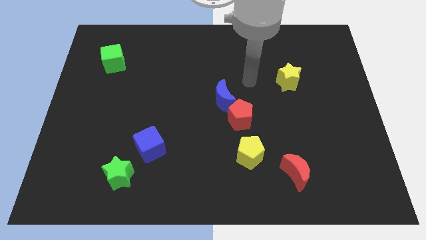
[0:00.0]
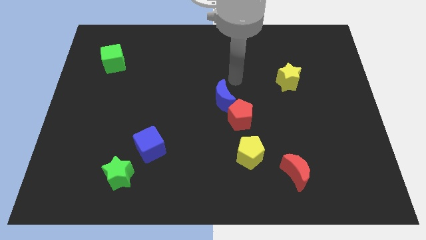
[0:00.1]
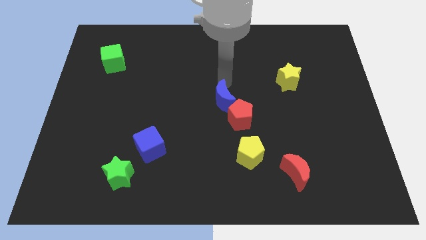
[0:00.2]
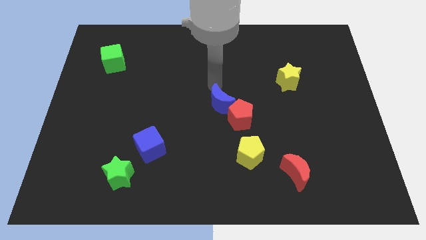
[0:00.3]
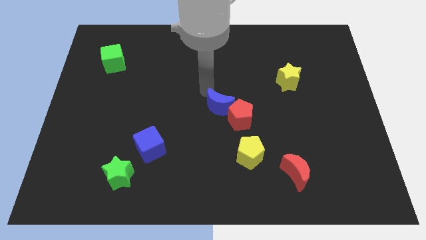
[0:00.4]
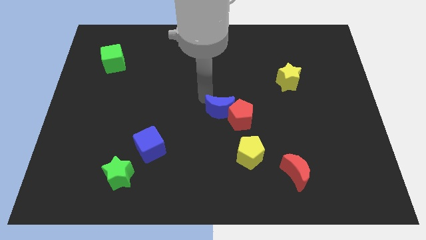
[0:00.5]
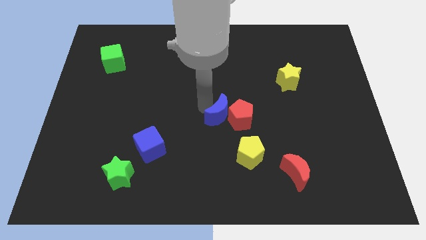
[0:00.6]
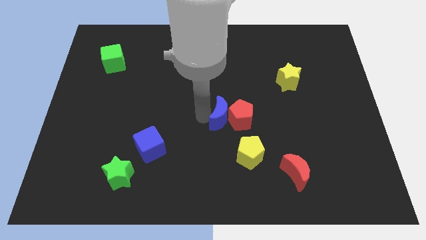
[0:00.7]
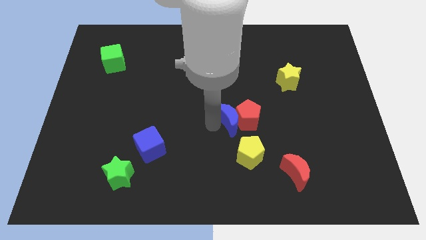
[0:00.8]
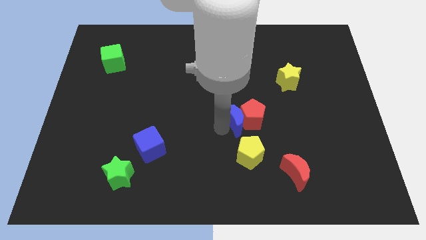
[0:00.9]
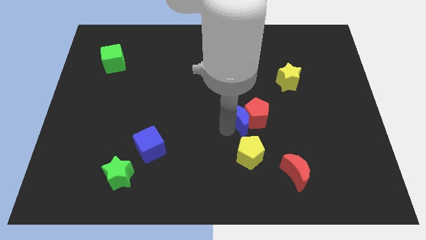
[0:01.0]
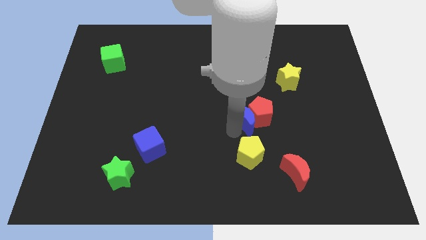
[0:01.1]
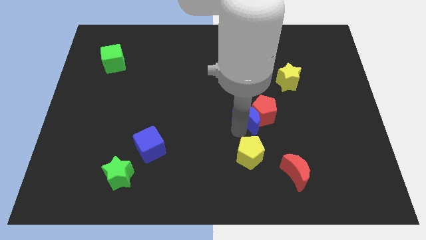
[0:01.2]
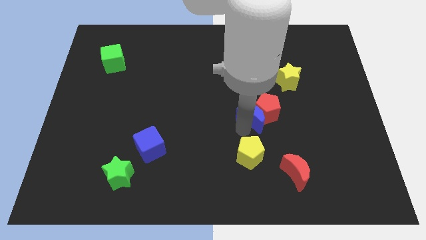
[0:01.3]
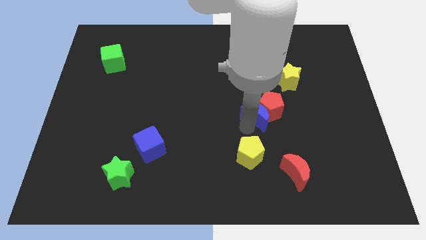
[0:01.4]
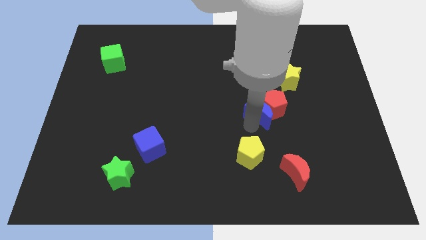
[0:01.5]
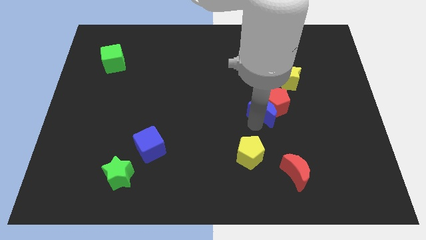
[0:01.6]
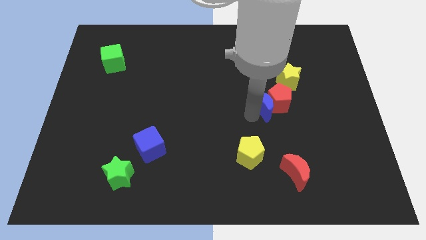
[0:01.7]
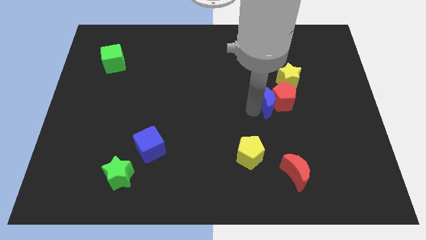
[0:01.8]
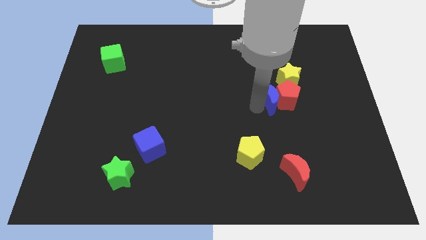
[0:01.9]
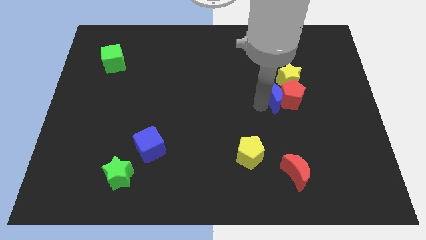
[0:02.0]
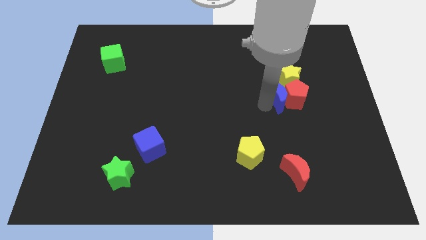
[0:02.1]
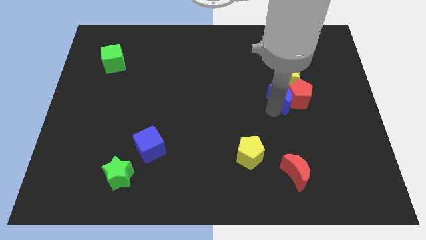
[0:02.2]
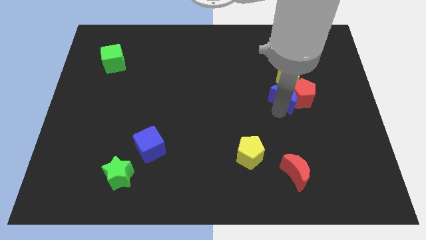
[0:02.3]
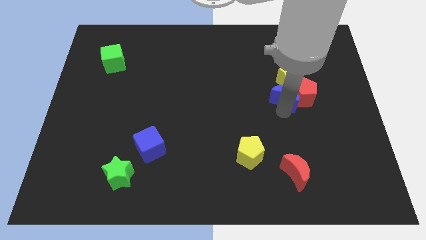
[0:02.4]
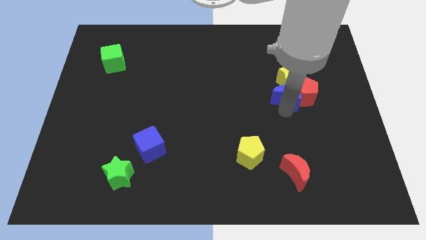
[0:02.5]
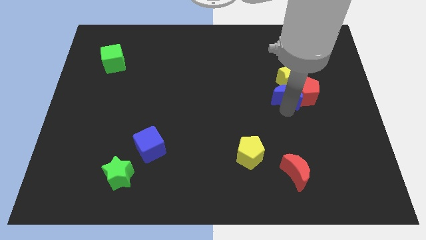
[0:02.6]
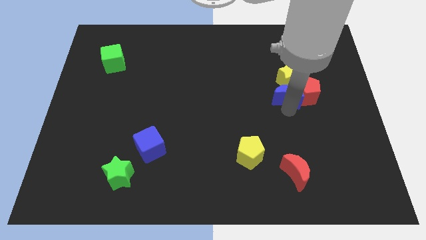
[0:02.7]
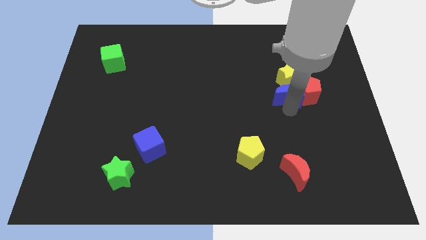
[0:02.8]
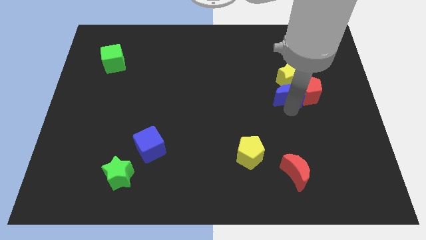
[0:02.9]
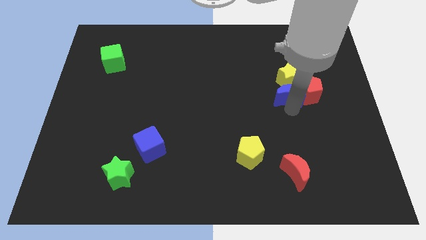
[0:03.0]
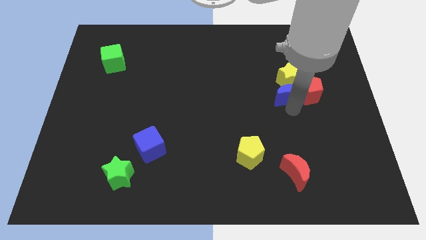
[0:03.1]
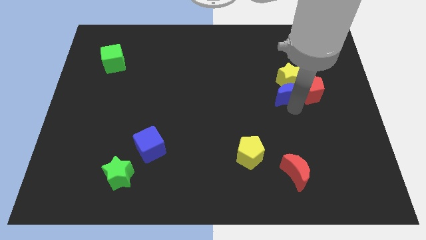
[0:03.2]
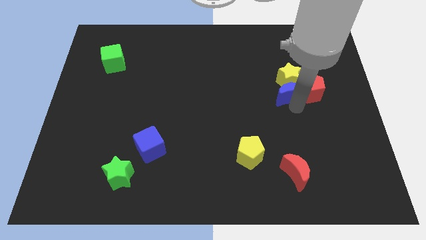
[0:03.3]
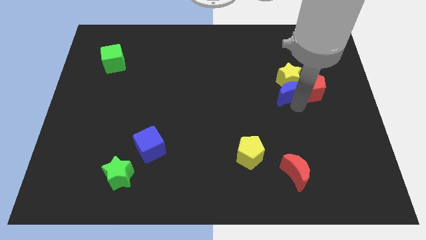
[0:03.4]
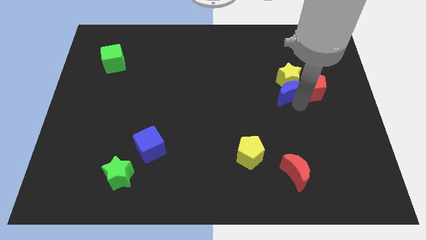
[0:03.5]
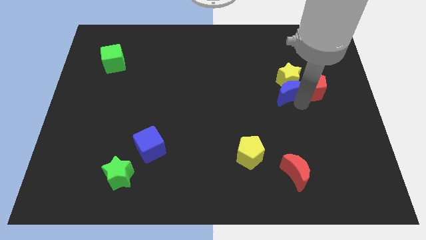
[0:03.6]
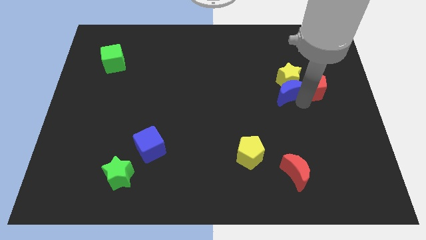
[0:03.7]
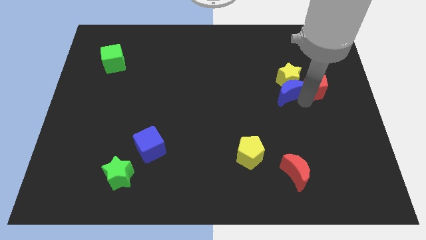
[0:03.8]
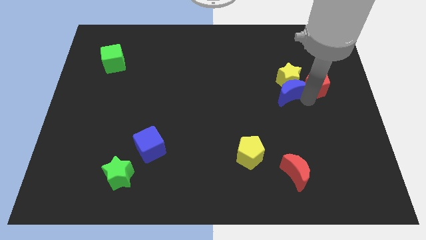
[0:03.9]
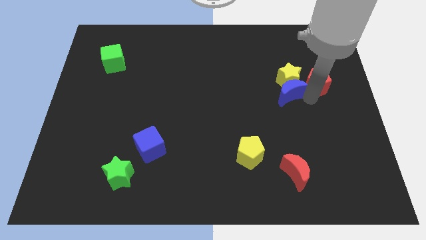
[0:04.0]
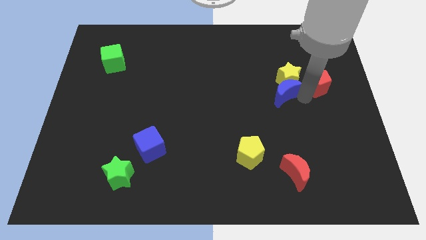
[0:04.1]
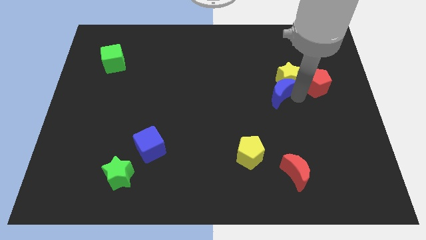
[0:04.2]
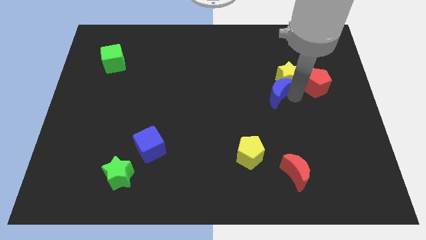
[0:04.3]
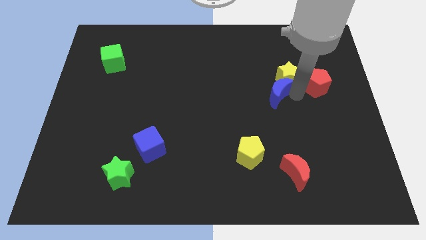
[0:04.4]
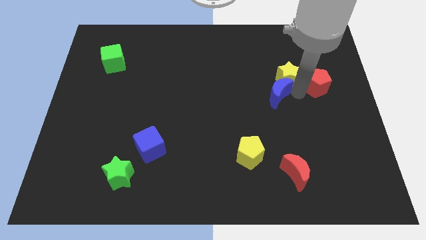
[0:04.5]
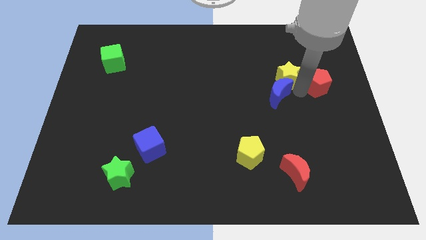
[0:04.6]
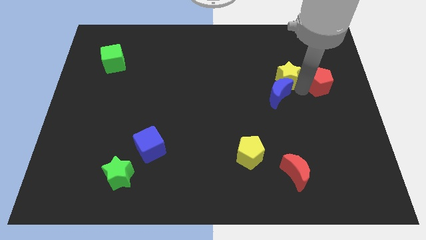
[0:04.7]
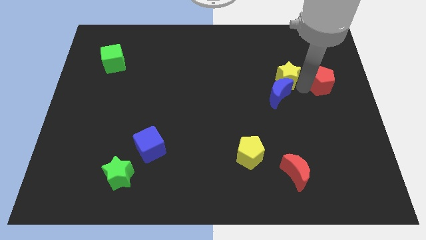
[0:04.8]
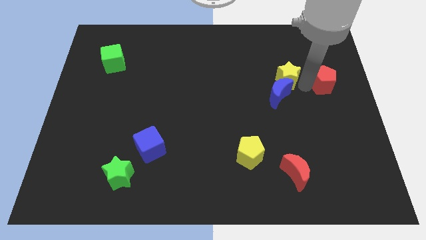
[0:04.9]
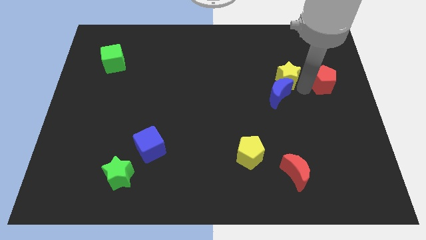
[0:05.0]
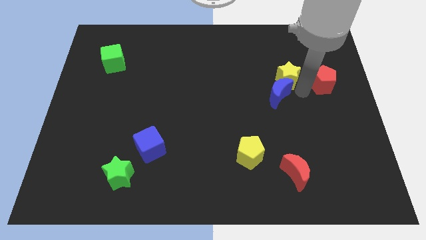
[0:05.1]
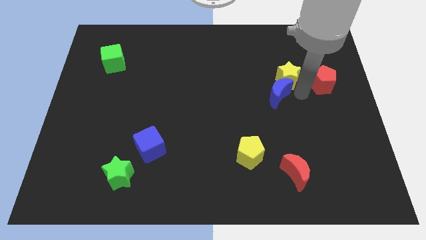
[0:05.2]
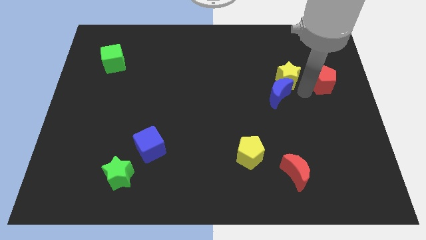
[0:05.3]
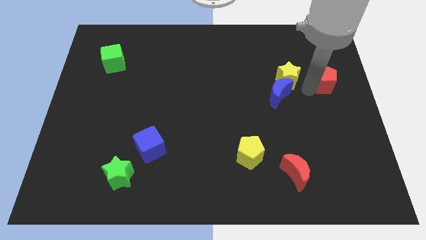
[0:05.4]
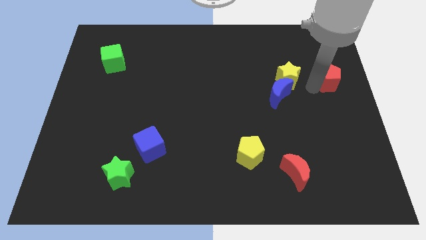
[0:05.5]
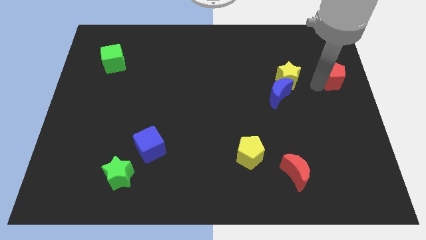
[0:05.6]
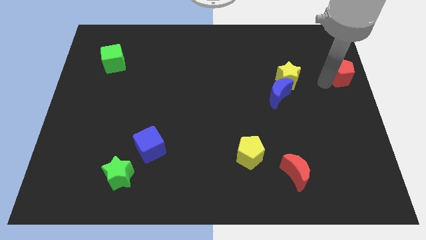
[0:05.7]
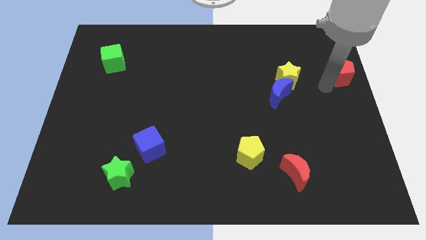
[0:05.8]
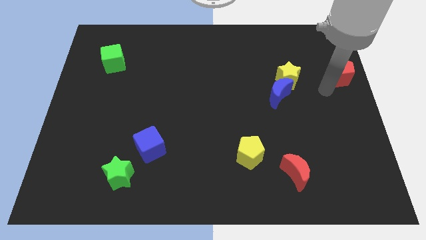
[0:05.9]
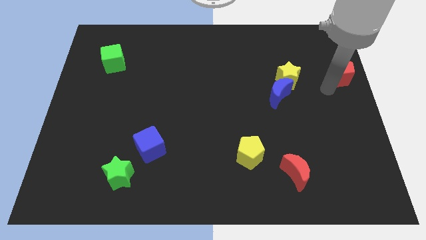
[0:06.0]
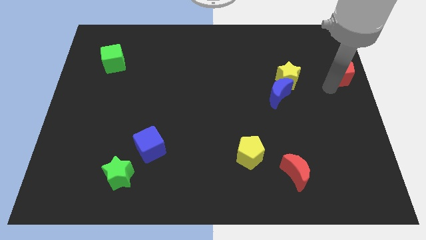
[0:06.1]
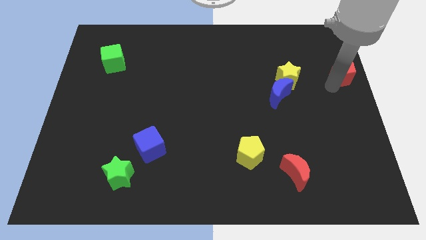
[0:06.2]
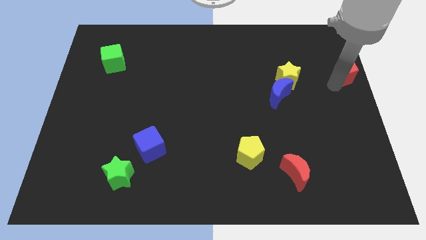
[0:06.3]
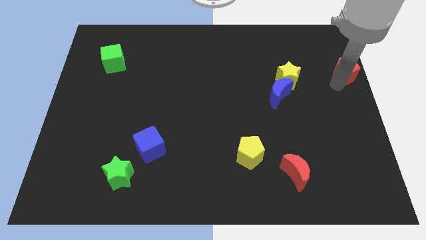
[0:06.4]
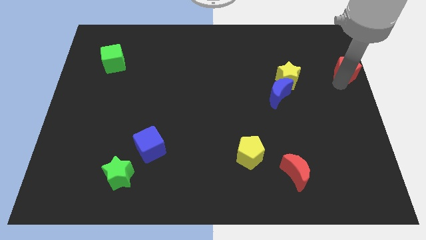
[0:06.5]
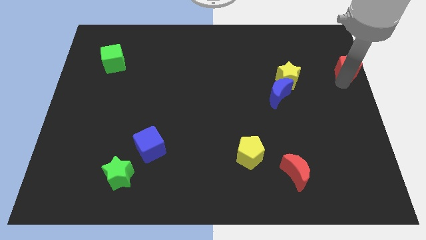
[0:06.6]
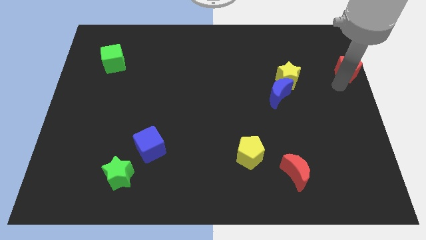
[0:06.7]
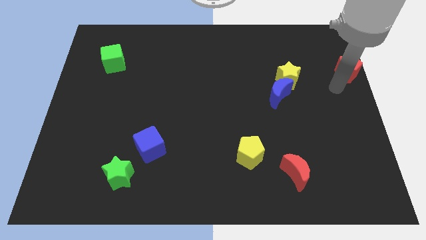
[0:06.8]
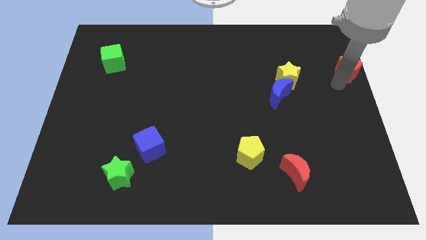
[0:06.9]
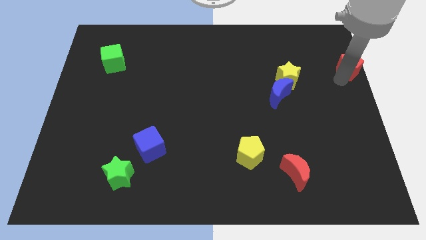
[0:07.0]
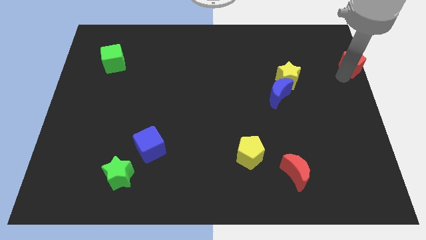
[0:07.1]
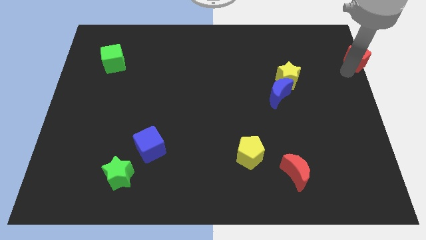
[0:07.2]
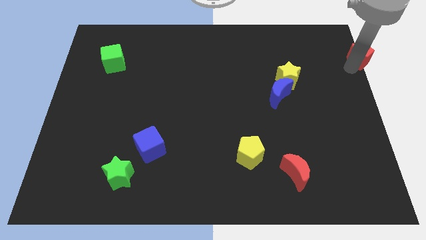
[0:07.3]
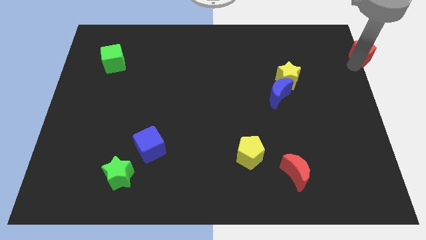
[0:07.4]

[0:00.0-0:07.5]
push the red pentagon to the top right
